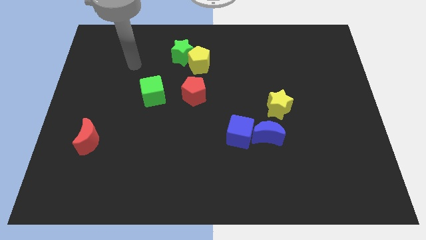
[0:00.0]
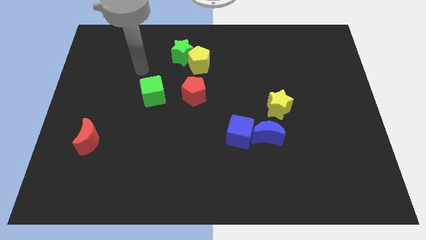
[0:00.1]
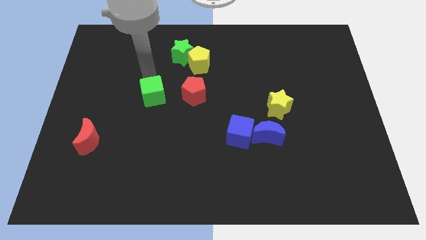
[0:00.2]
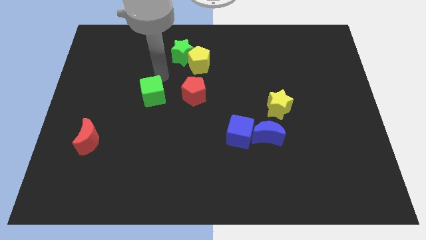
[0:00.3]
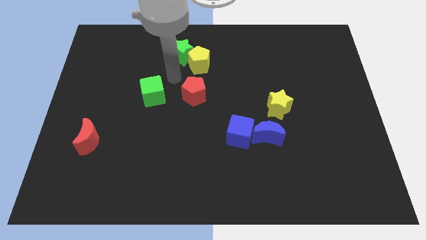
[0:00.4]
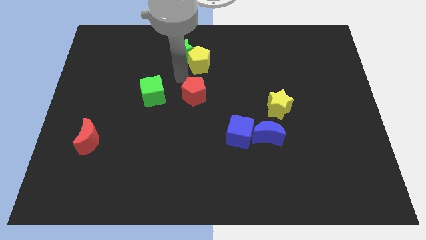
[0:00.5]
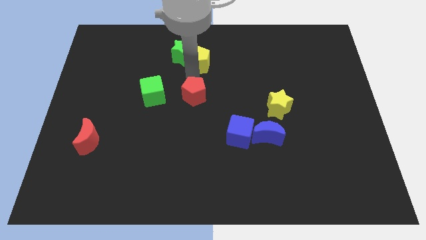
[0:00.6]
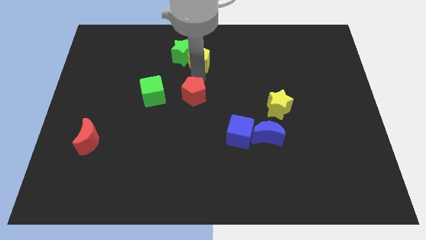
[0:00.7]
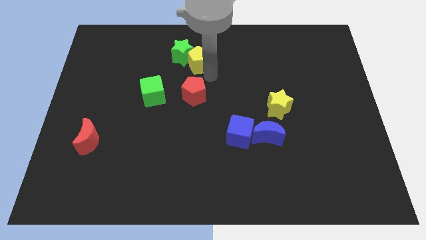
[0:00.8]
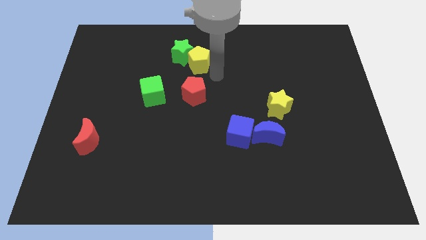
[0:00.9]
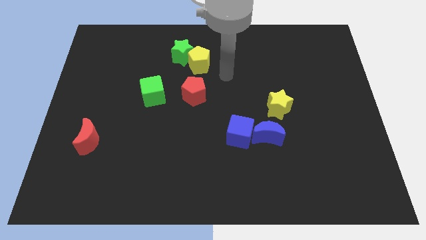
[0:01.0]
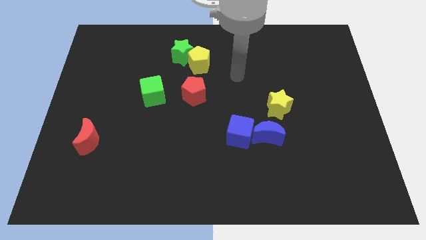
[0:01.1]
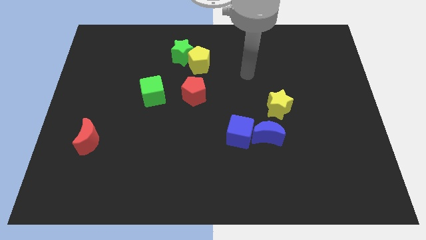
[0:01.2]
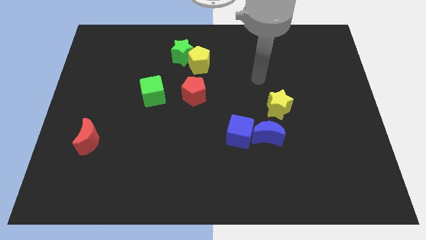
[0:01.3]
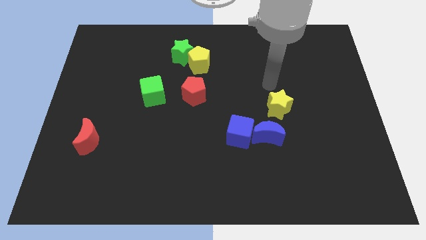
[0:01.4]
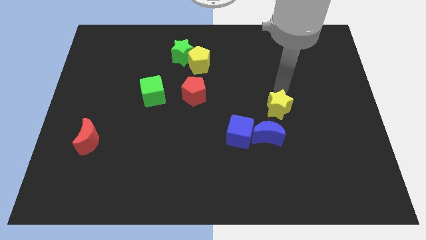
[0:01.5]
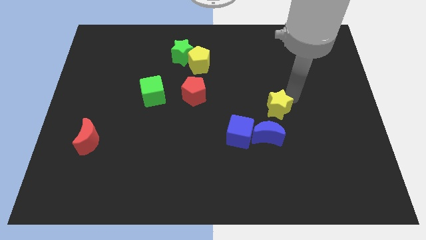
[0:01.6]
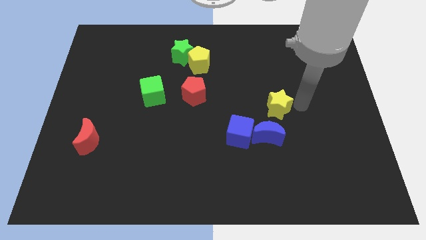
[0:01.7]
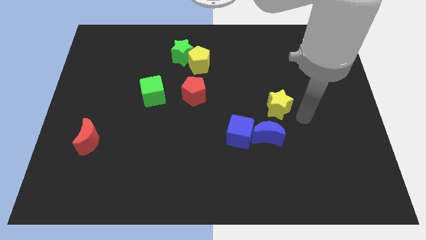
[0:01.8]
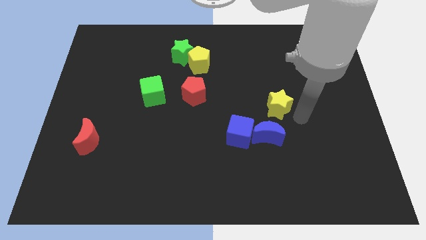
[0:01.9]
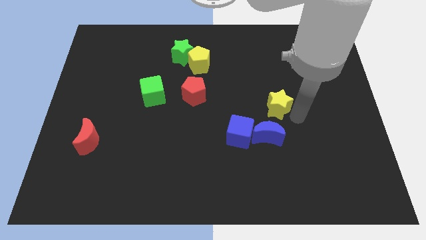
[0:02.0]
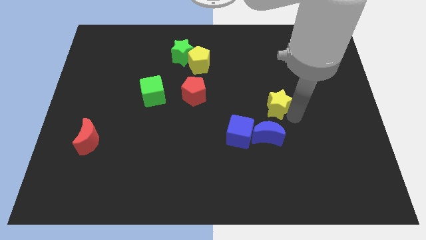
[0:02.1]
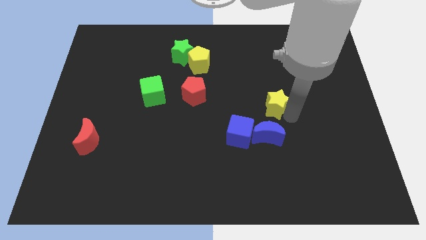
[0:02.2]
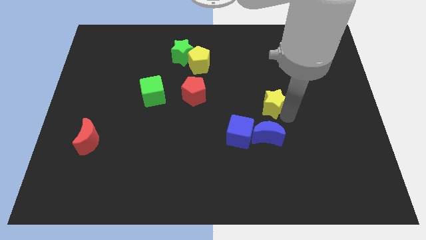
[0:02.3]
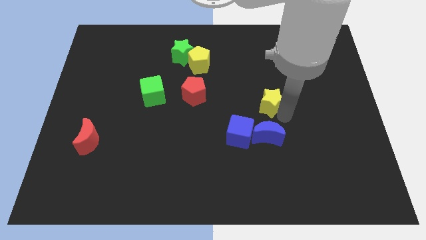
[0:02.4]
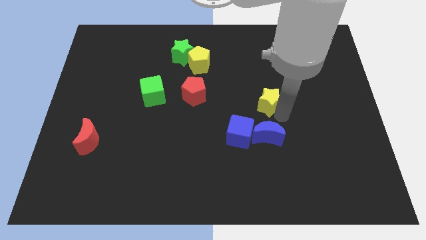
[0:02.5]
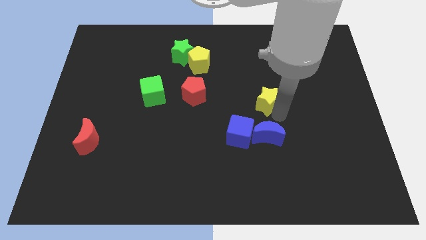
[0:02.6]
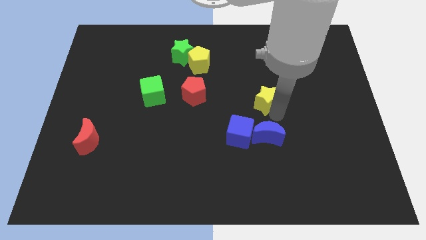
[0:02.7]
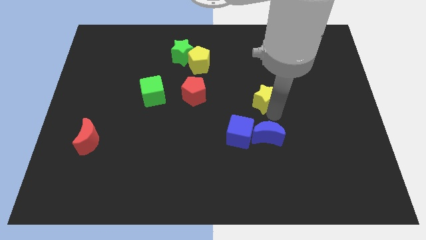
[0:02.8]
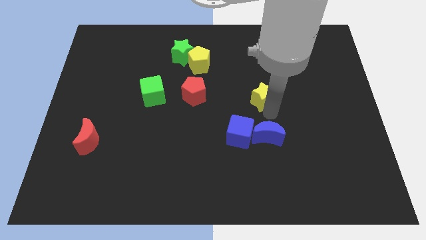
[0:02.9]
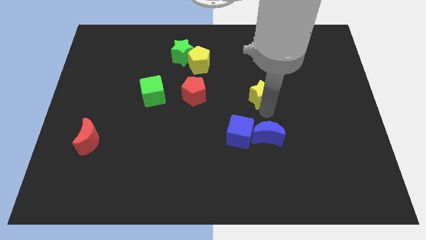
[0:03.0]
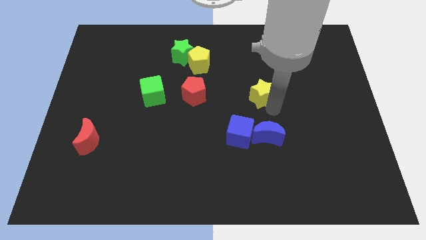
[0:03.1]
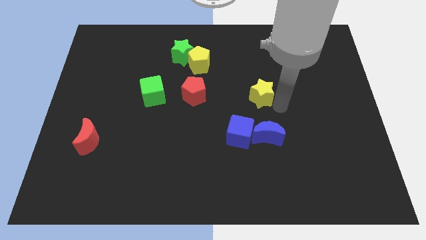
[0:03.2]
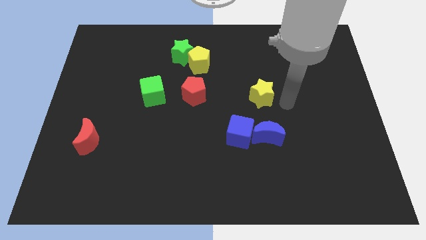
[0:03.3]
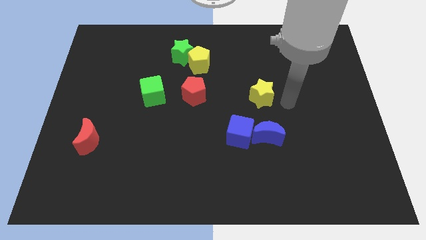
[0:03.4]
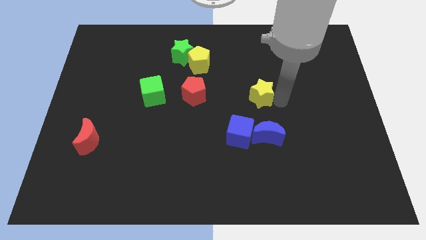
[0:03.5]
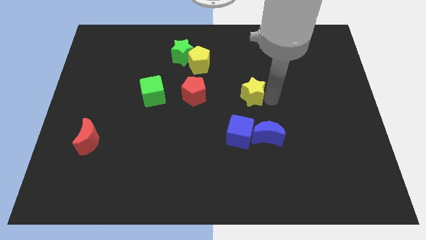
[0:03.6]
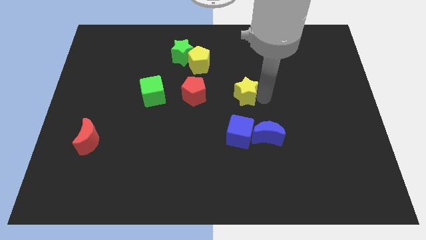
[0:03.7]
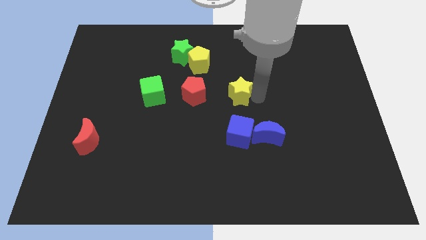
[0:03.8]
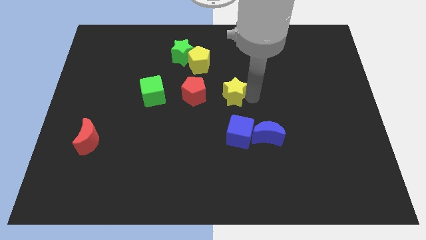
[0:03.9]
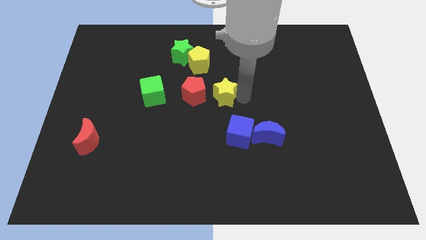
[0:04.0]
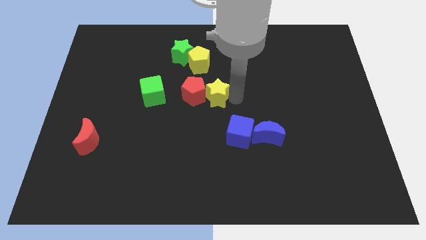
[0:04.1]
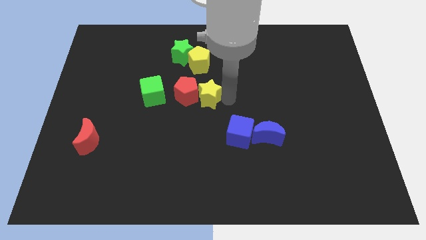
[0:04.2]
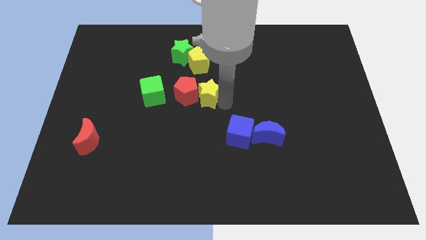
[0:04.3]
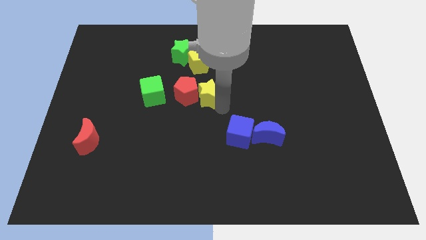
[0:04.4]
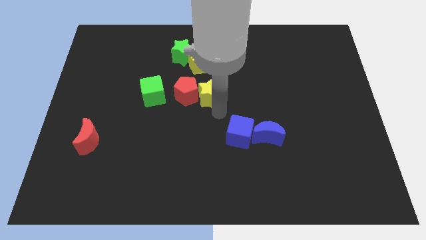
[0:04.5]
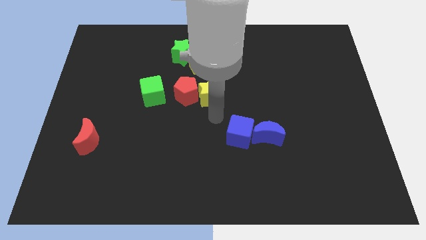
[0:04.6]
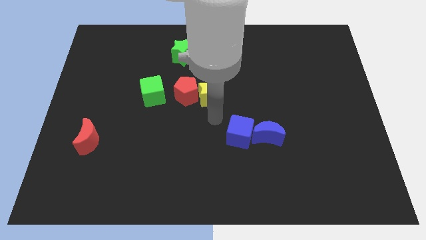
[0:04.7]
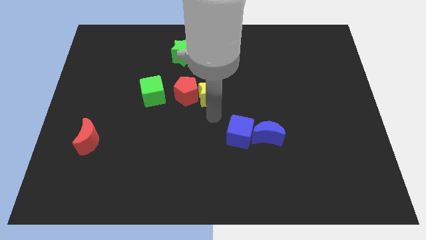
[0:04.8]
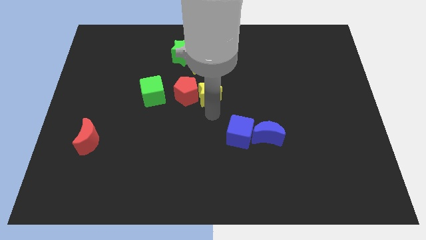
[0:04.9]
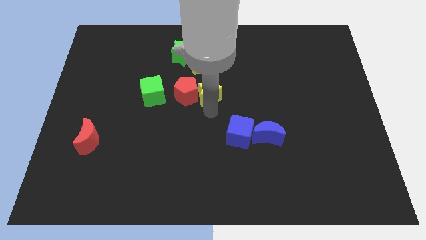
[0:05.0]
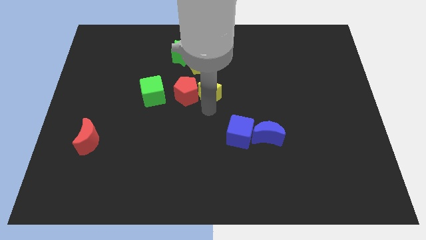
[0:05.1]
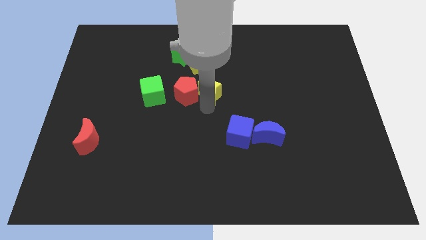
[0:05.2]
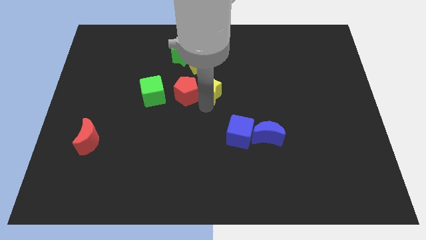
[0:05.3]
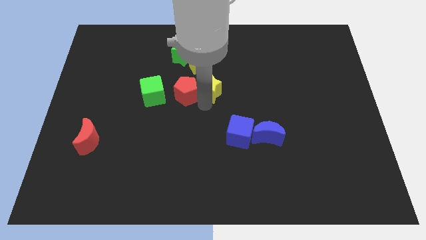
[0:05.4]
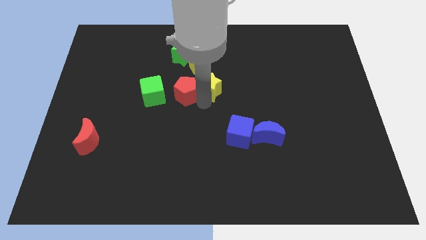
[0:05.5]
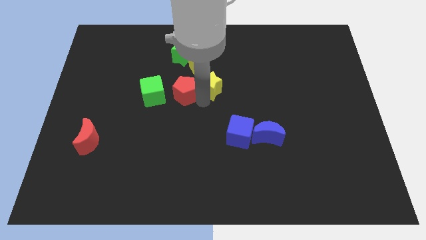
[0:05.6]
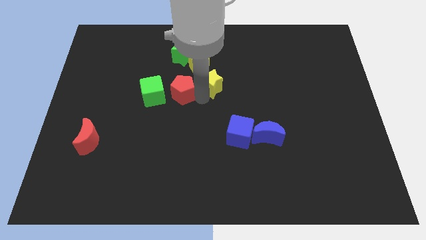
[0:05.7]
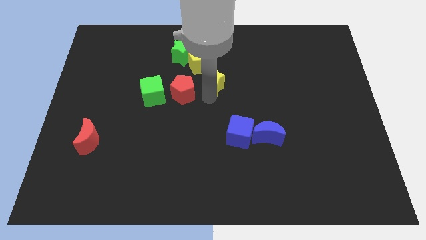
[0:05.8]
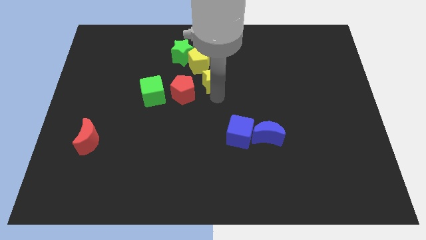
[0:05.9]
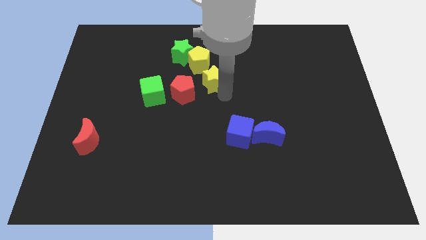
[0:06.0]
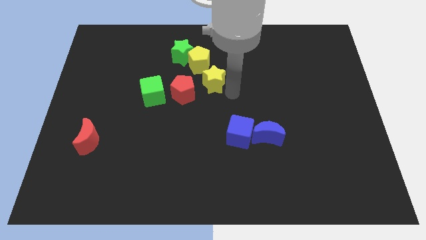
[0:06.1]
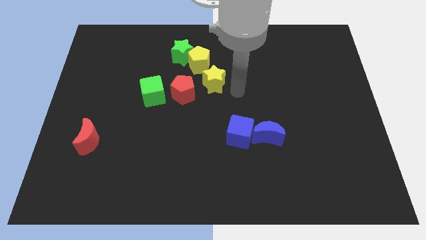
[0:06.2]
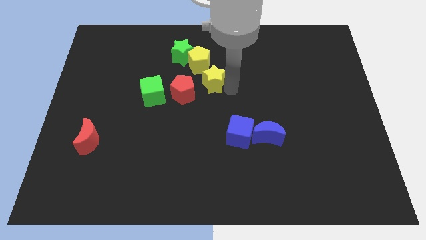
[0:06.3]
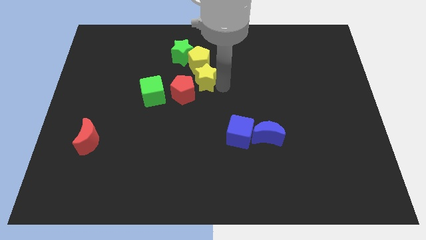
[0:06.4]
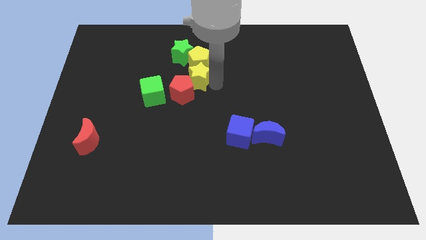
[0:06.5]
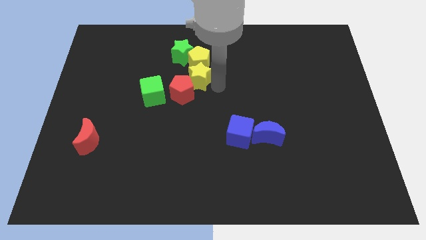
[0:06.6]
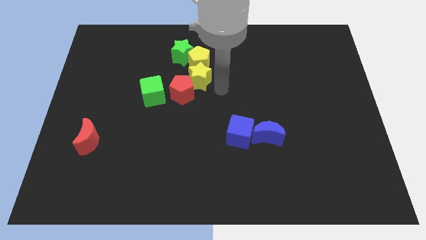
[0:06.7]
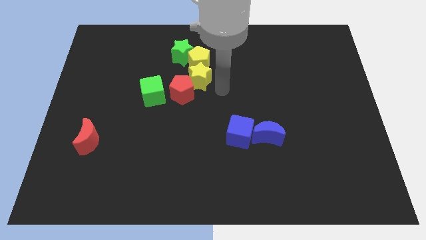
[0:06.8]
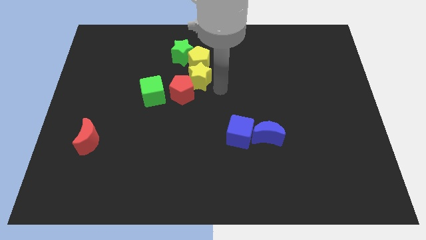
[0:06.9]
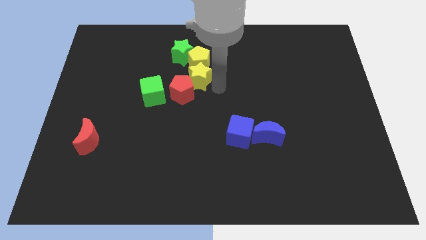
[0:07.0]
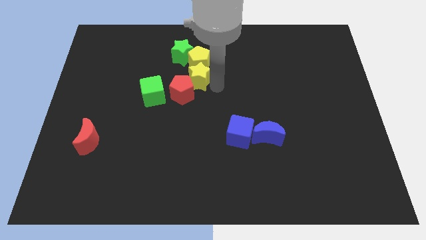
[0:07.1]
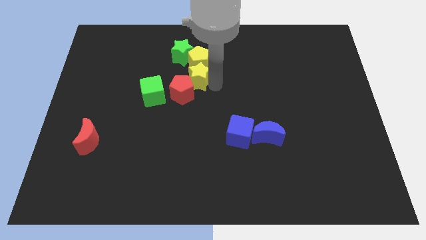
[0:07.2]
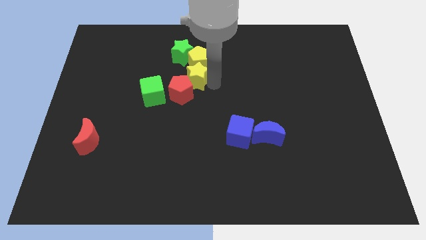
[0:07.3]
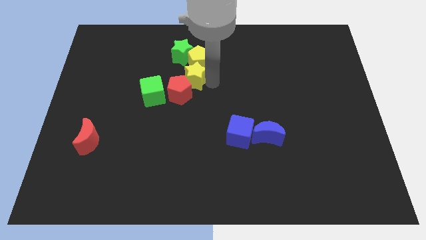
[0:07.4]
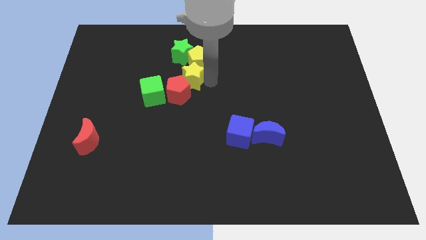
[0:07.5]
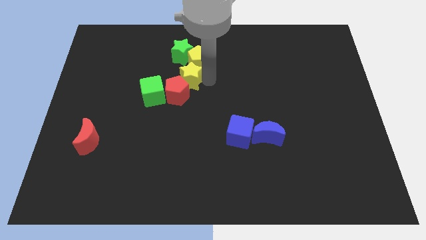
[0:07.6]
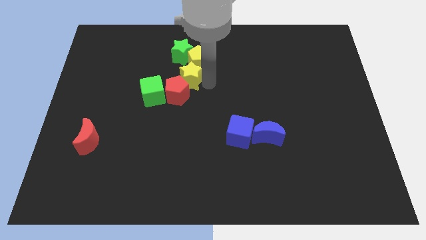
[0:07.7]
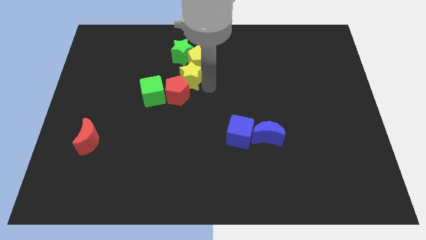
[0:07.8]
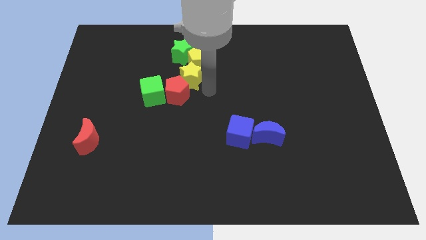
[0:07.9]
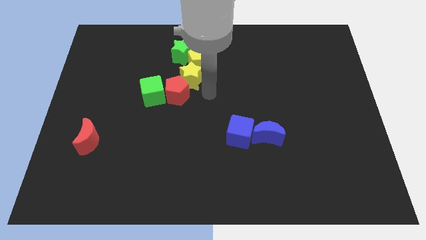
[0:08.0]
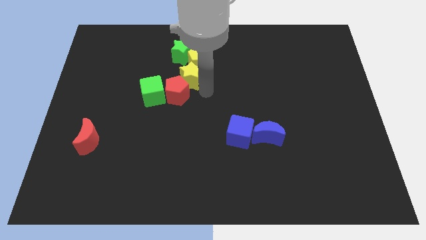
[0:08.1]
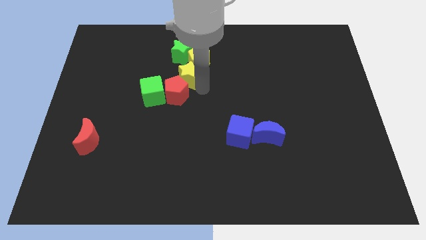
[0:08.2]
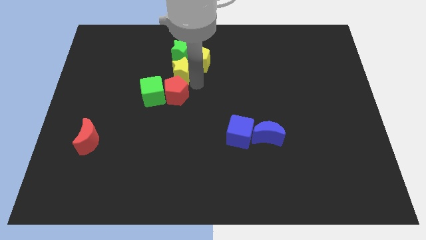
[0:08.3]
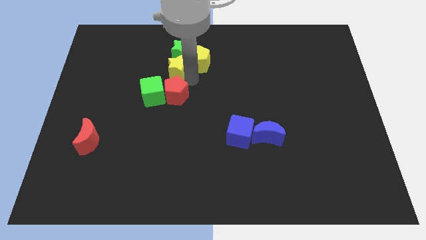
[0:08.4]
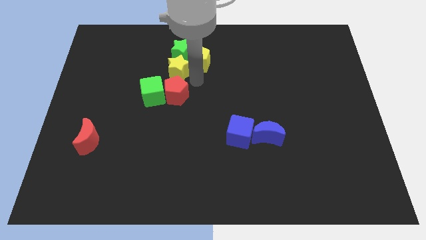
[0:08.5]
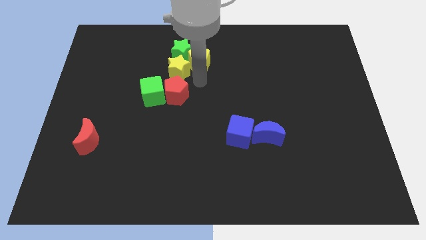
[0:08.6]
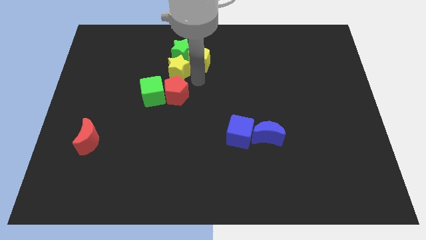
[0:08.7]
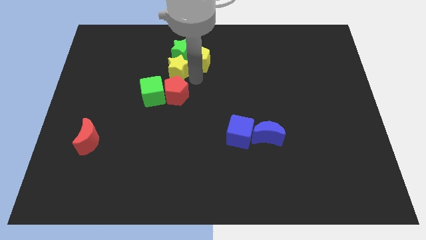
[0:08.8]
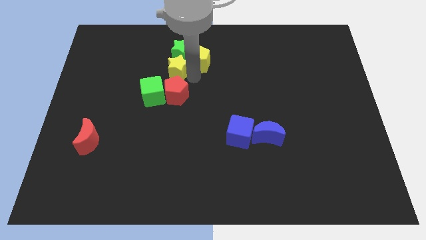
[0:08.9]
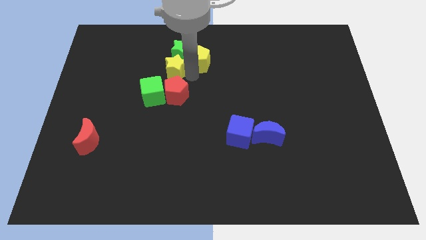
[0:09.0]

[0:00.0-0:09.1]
move the yellow star to the top of the green cube
